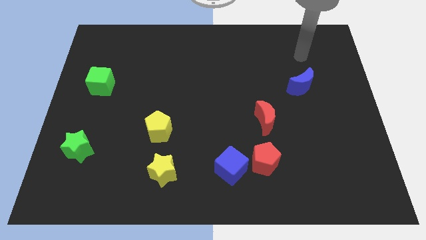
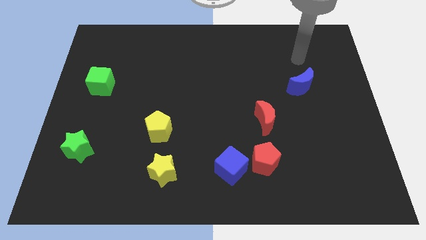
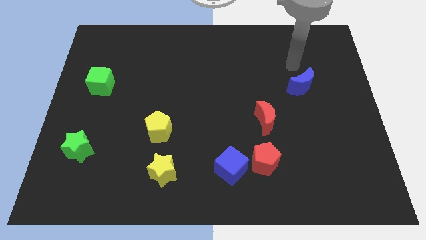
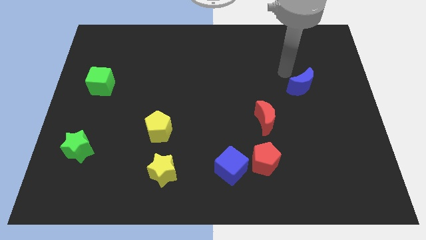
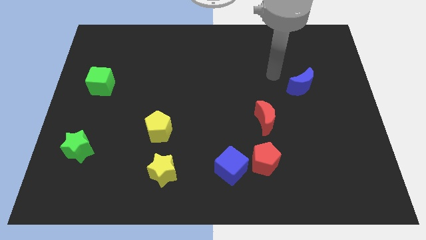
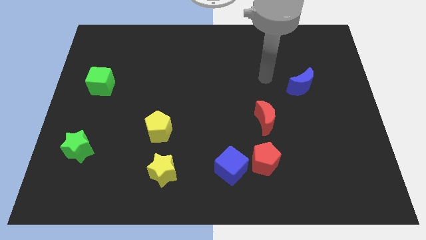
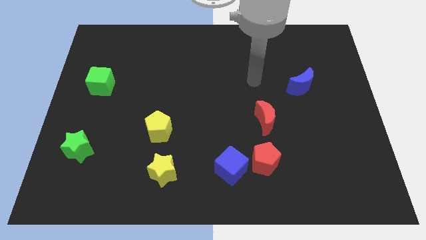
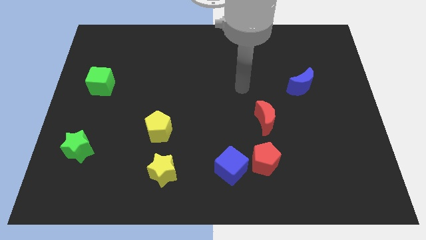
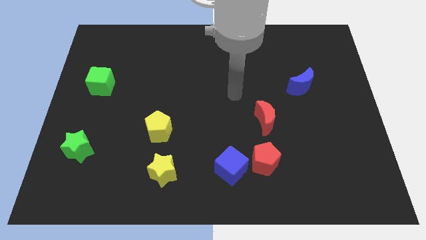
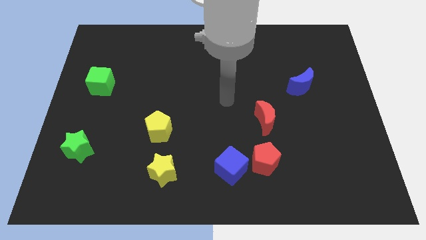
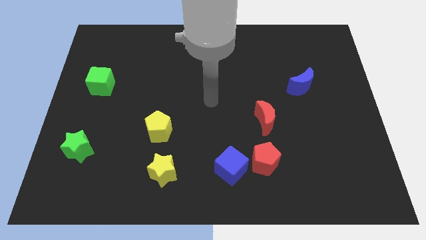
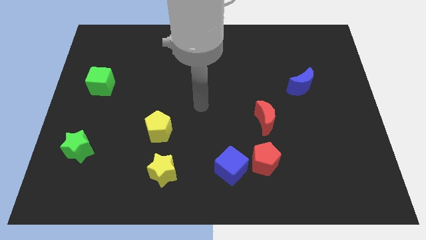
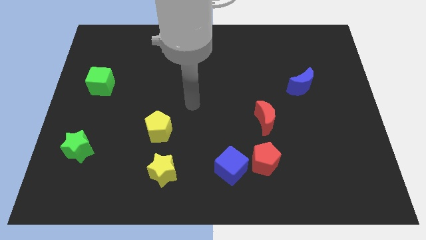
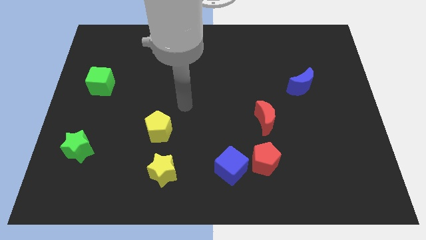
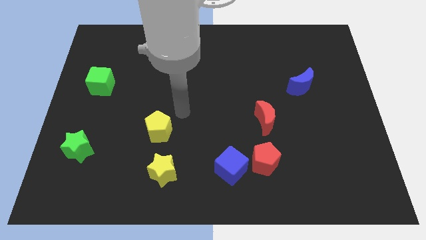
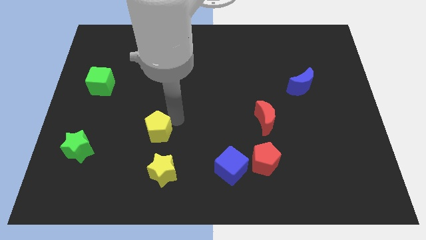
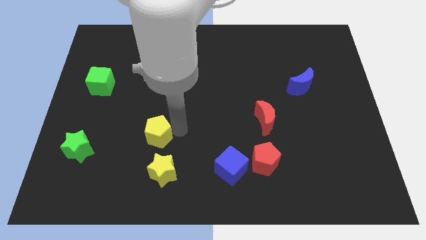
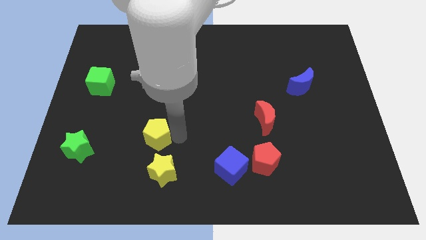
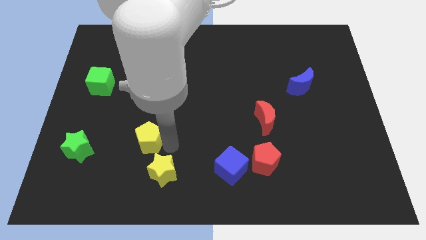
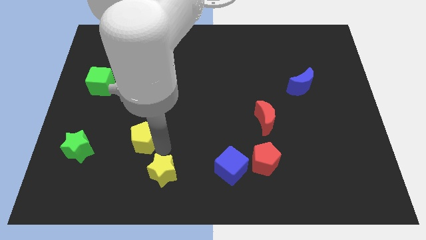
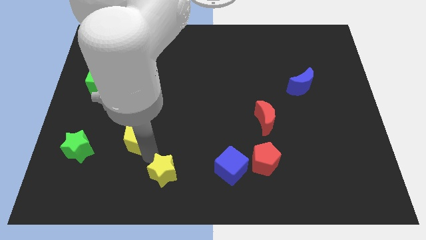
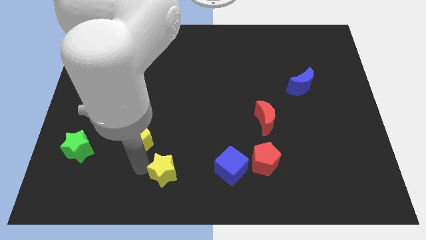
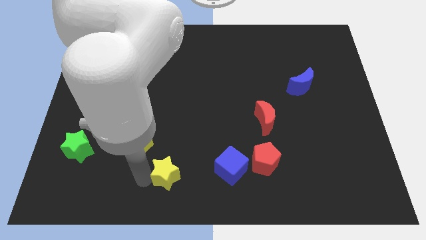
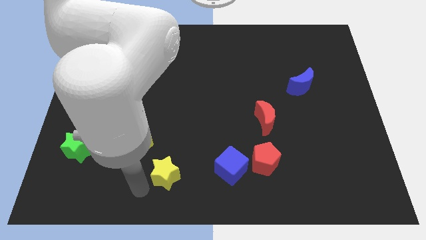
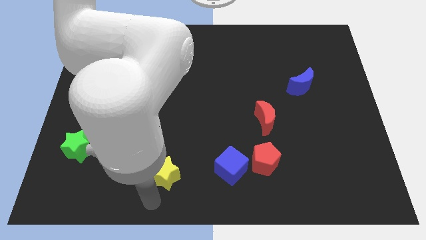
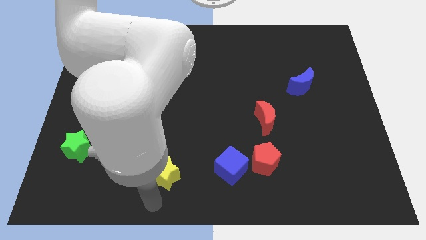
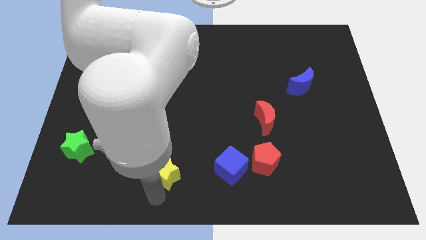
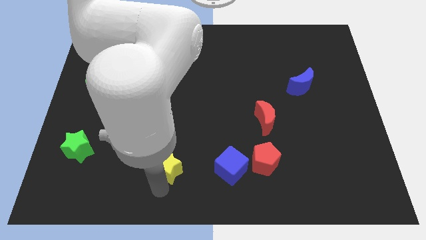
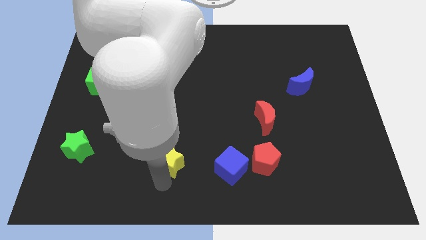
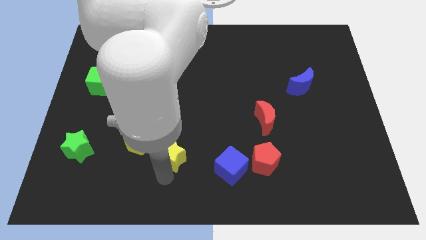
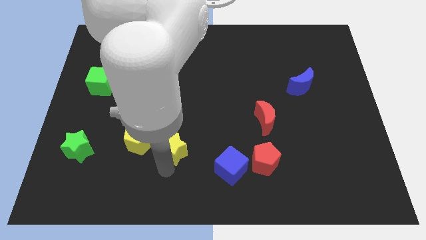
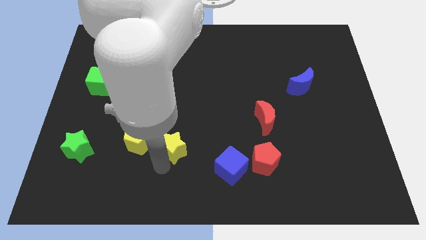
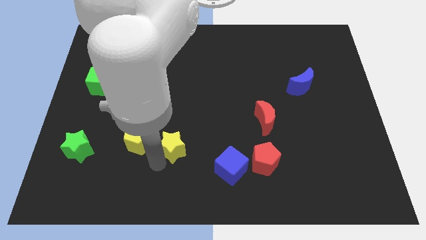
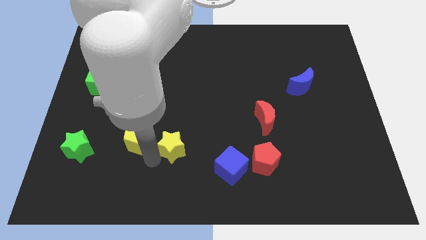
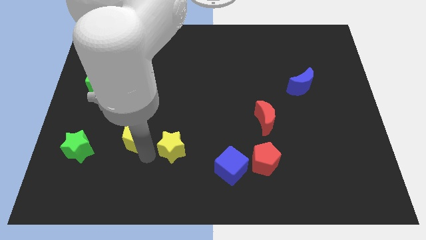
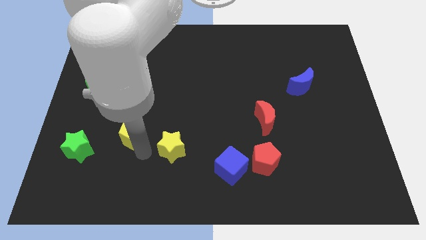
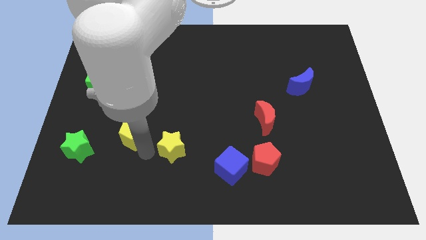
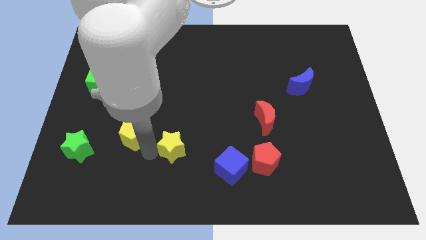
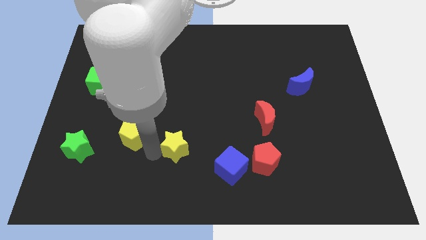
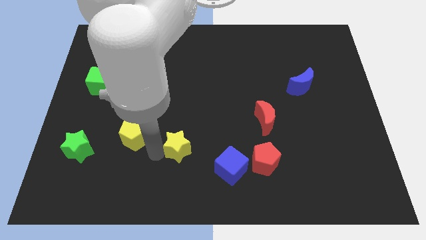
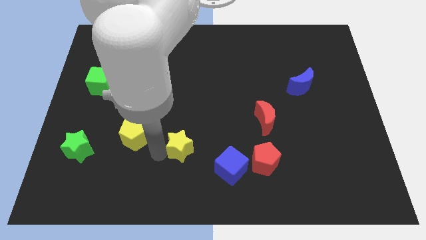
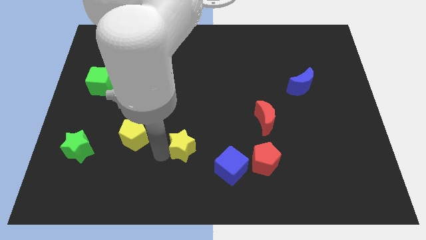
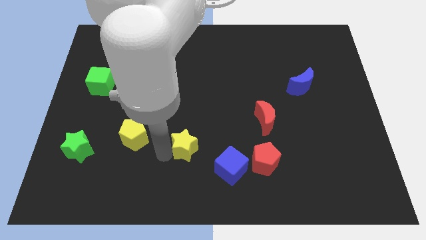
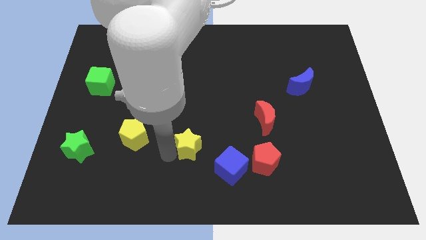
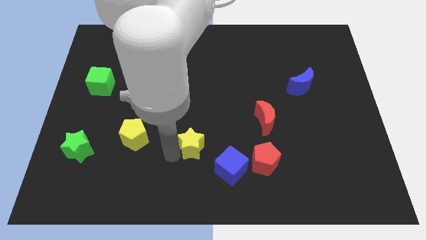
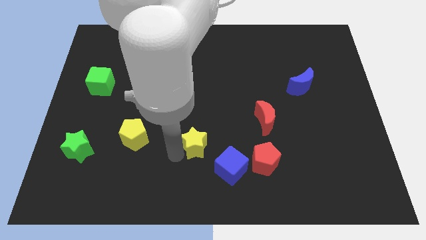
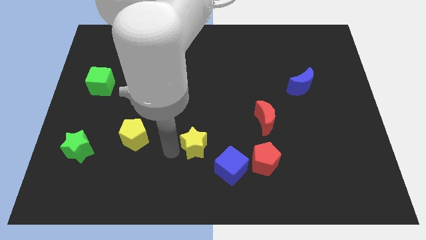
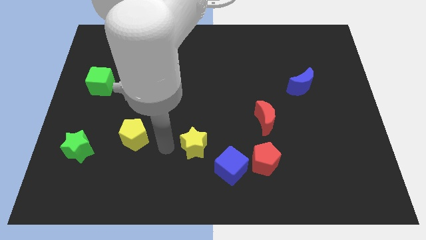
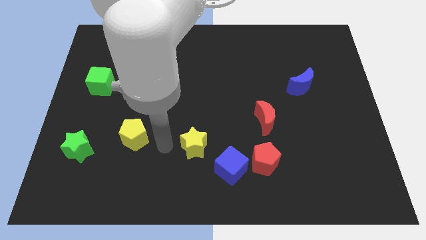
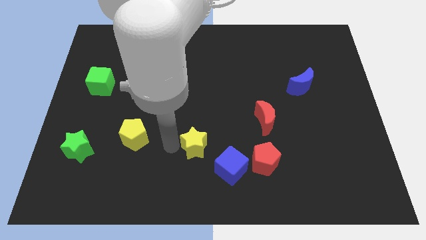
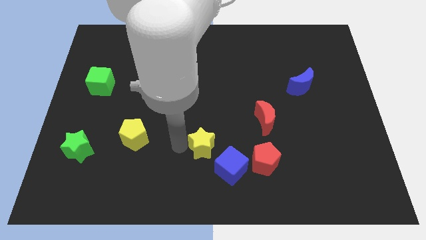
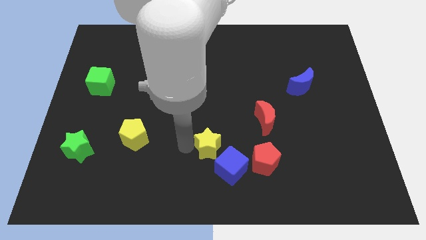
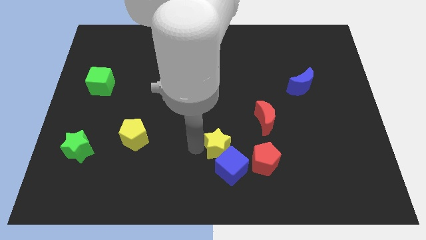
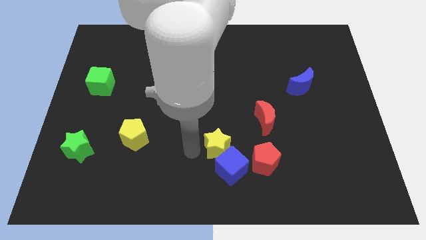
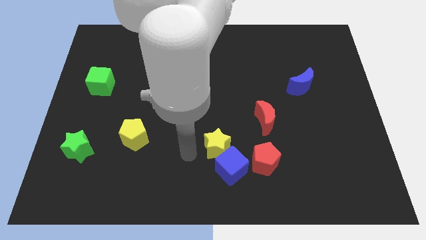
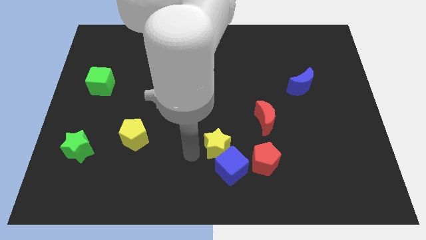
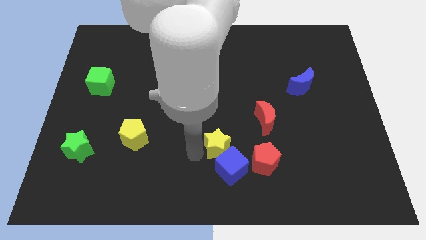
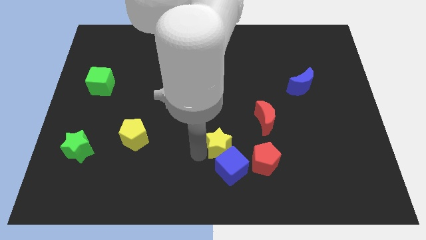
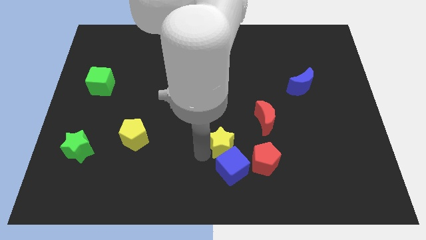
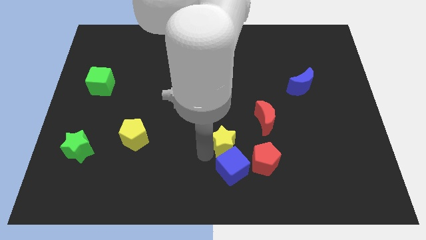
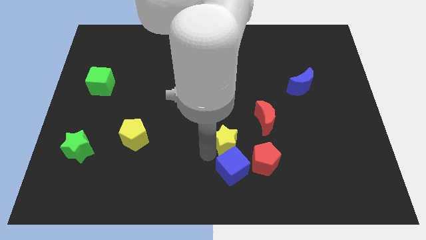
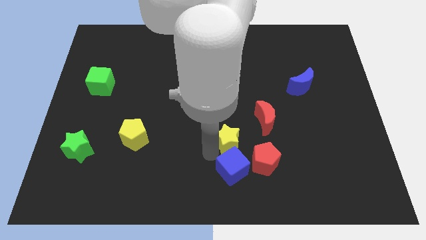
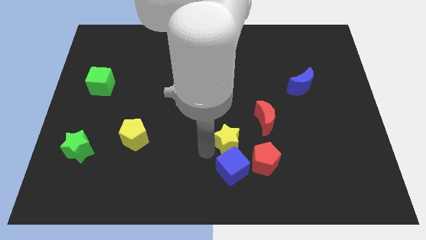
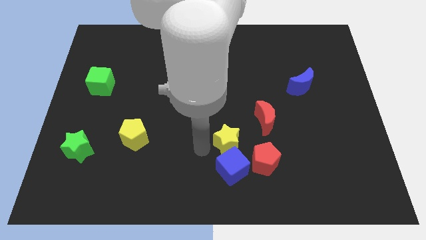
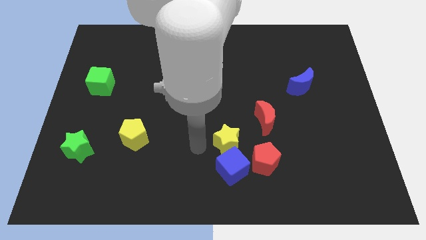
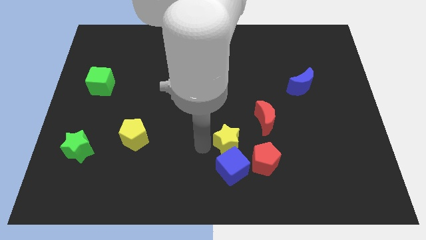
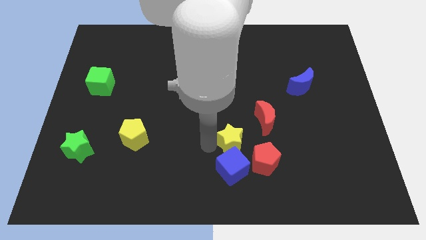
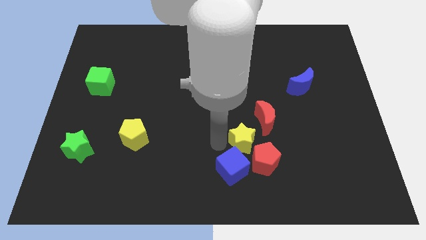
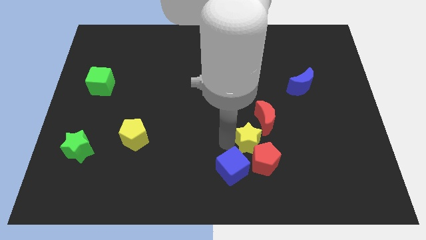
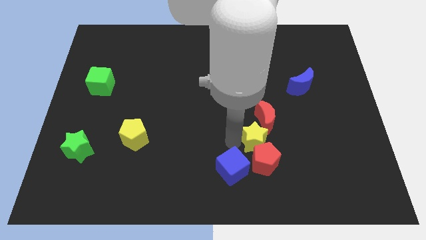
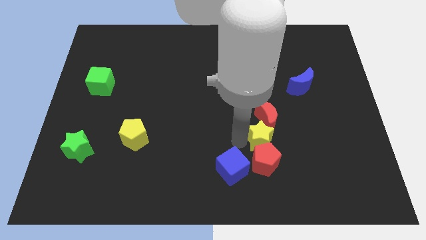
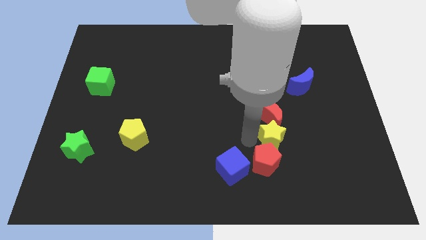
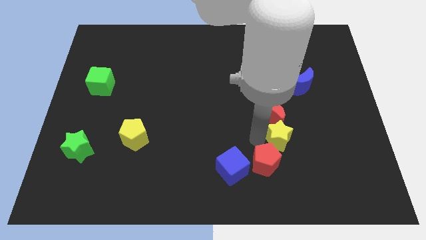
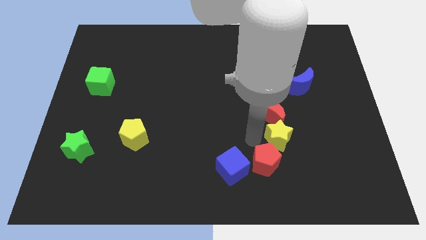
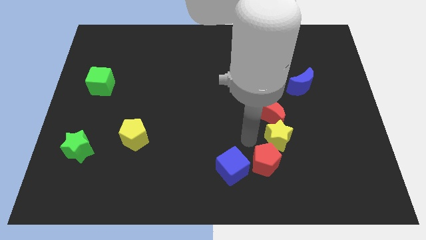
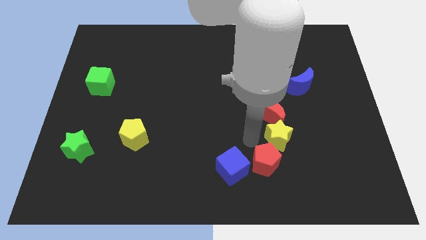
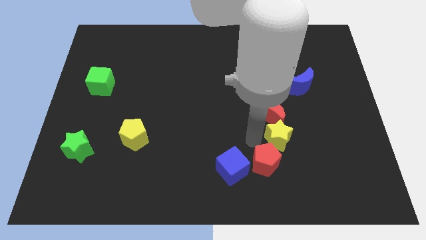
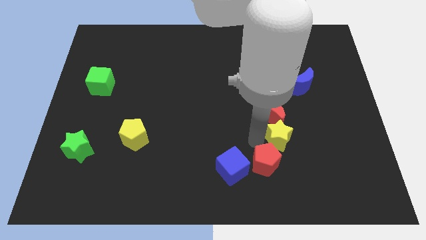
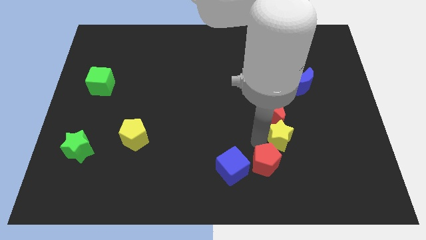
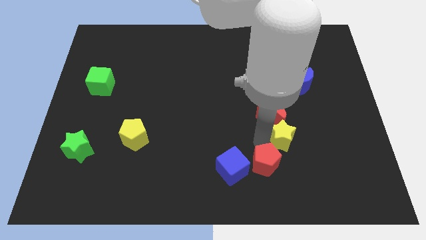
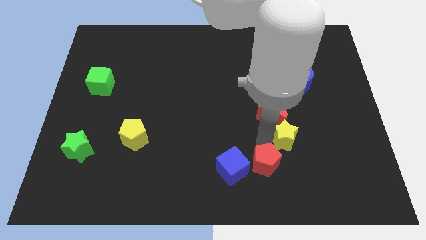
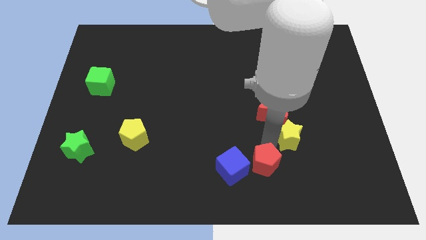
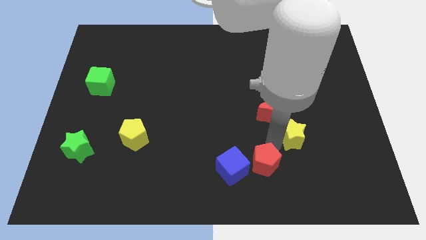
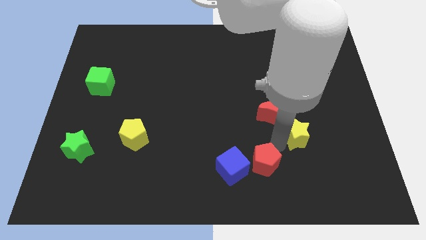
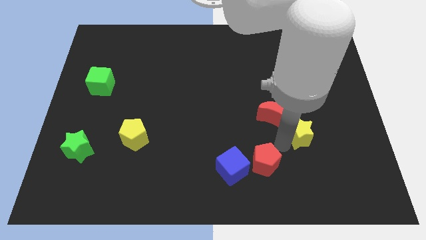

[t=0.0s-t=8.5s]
slide the yellow star just right of the red moon
